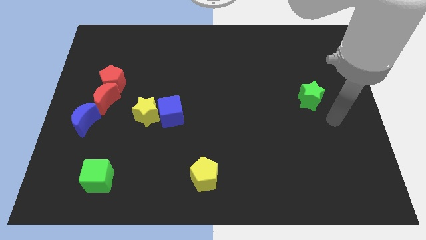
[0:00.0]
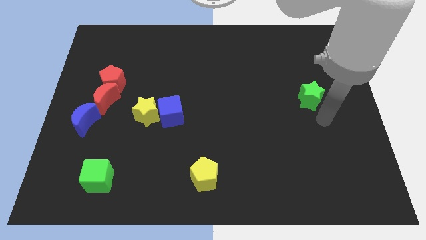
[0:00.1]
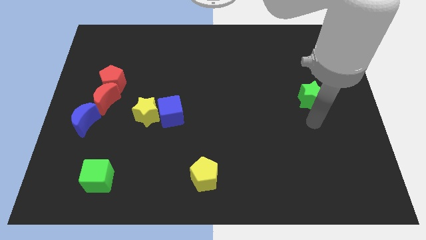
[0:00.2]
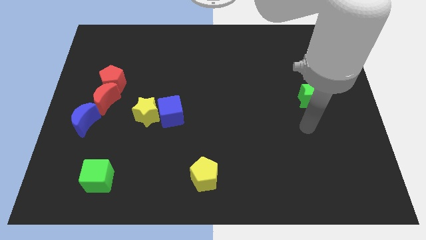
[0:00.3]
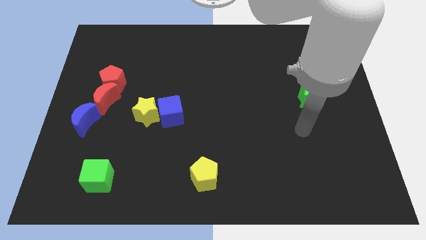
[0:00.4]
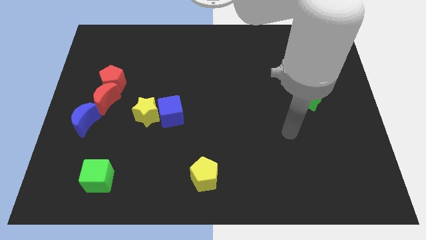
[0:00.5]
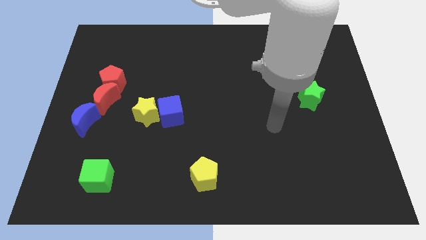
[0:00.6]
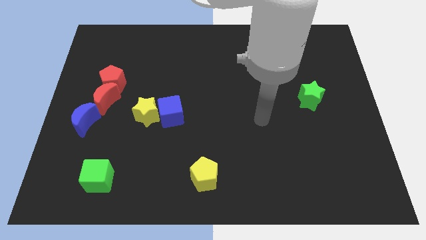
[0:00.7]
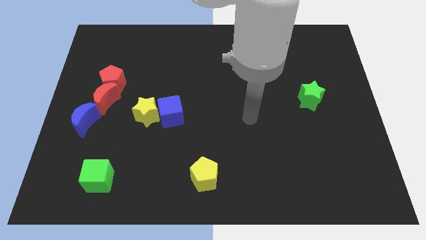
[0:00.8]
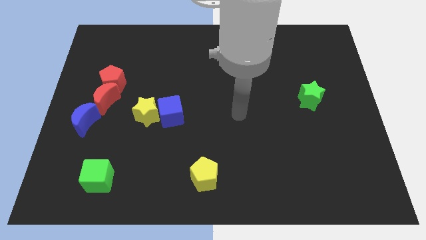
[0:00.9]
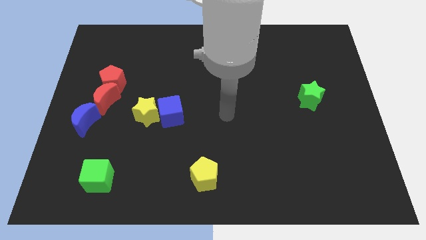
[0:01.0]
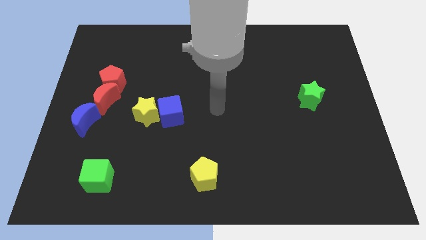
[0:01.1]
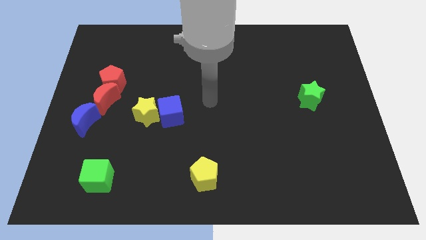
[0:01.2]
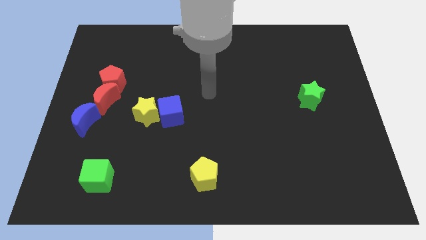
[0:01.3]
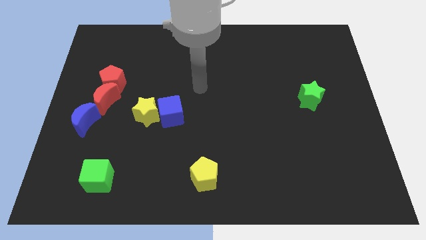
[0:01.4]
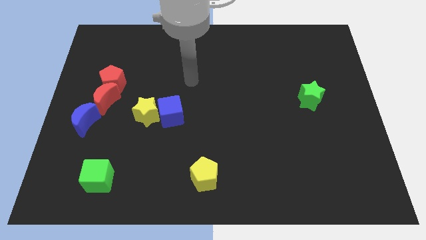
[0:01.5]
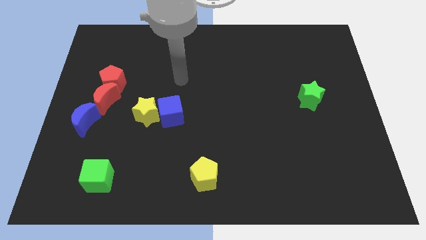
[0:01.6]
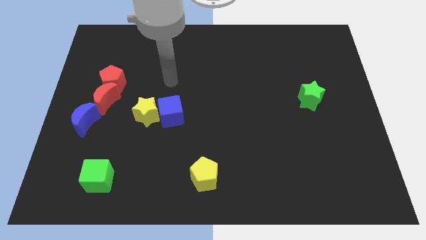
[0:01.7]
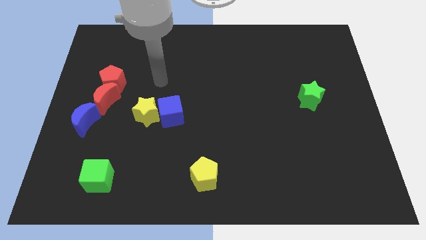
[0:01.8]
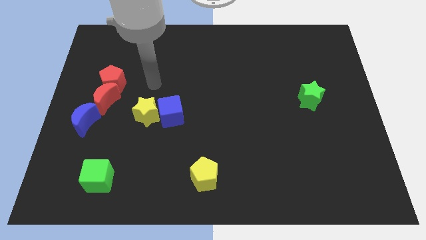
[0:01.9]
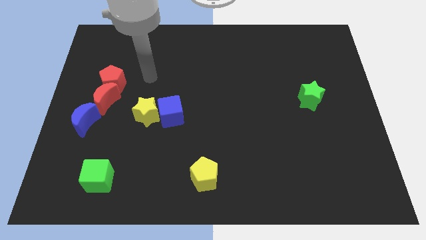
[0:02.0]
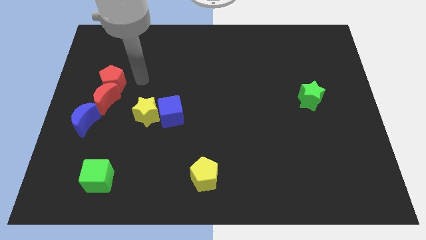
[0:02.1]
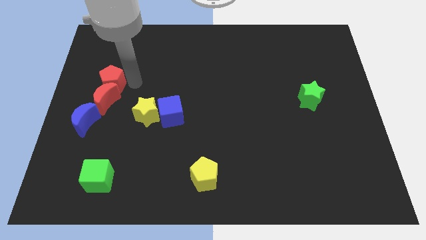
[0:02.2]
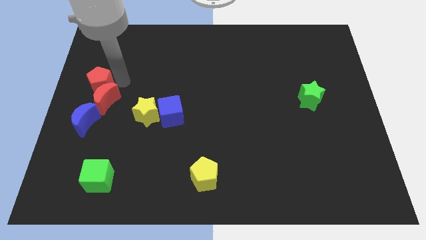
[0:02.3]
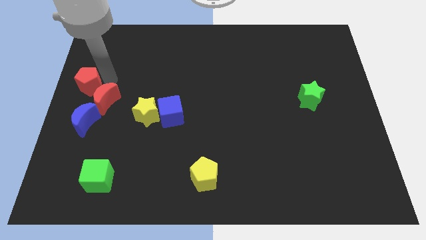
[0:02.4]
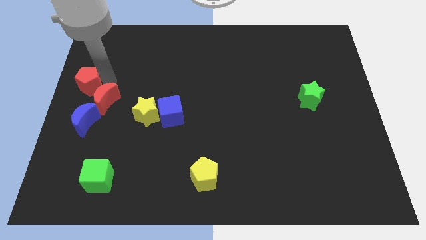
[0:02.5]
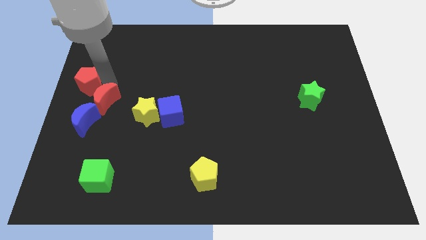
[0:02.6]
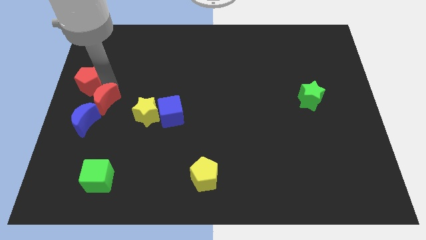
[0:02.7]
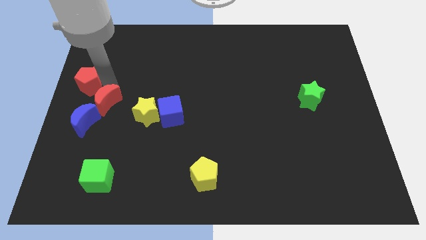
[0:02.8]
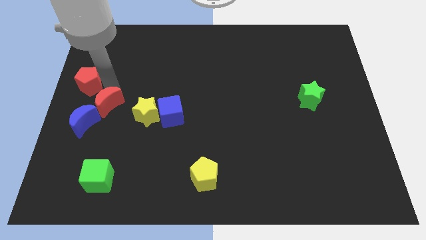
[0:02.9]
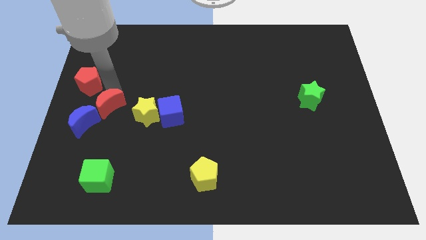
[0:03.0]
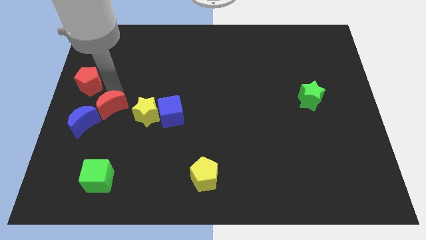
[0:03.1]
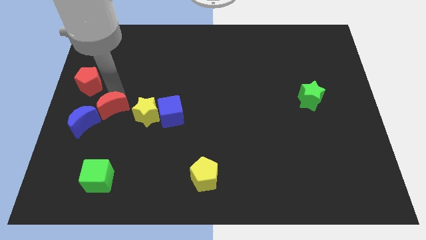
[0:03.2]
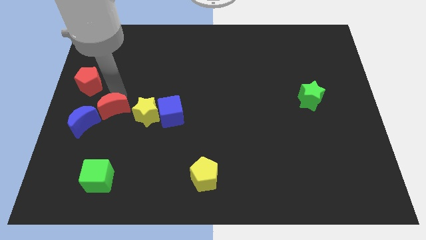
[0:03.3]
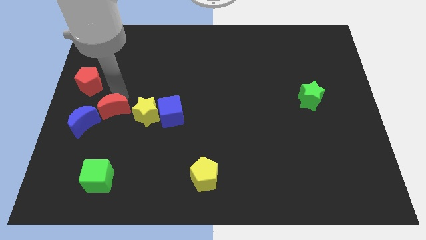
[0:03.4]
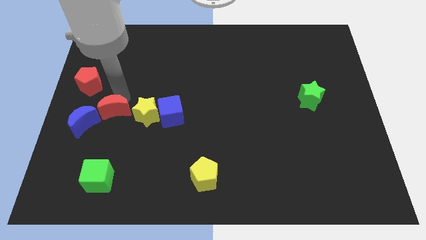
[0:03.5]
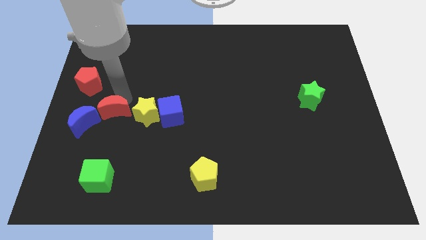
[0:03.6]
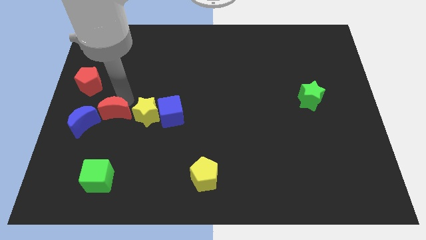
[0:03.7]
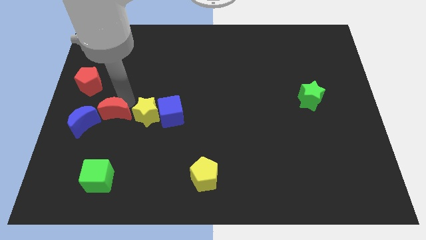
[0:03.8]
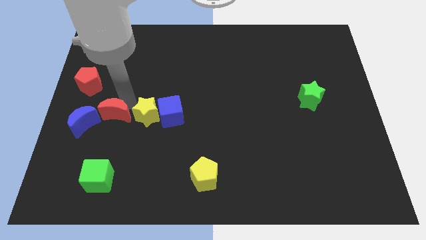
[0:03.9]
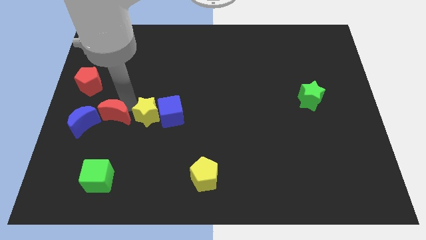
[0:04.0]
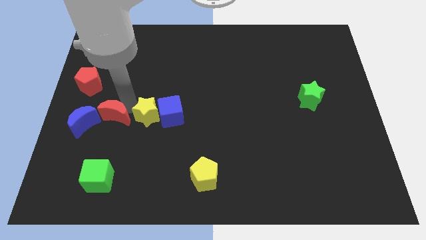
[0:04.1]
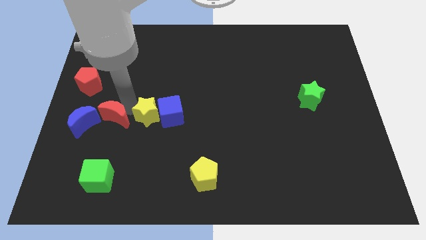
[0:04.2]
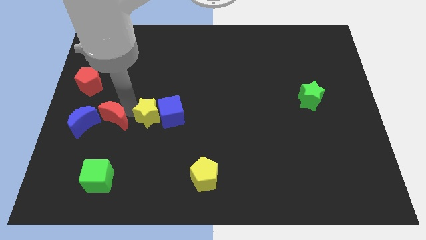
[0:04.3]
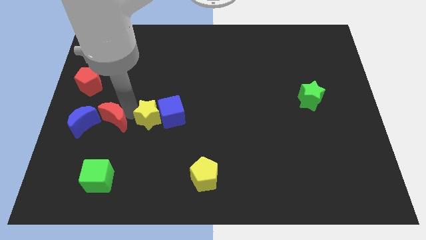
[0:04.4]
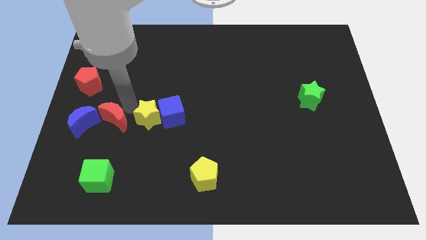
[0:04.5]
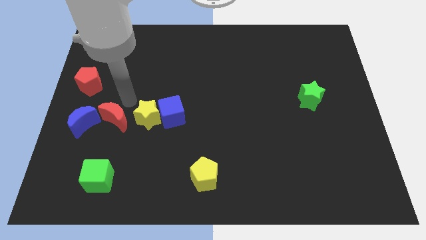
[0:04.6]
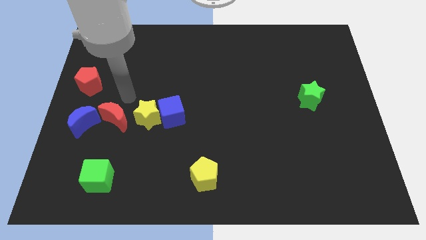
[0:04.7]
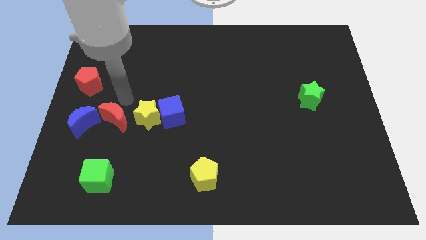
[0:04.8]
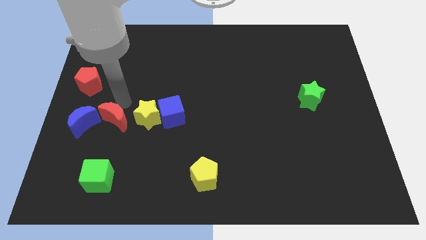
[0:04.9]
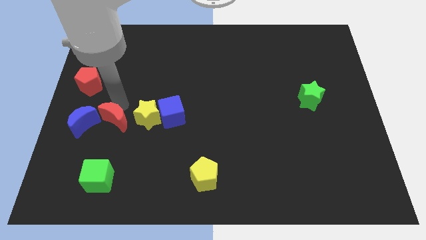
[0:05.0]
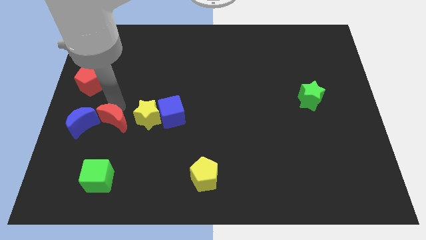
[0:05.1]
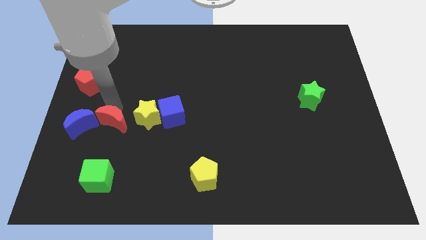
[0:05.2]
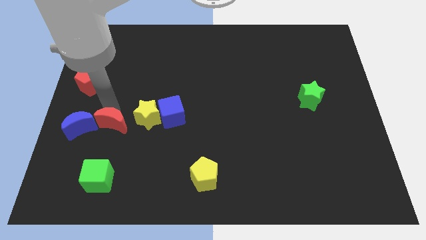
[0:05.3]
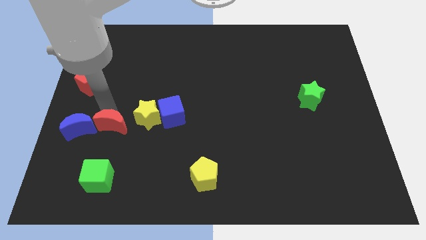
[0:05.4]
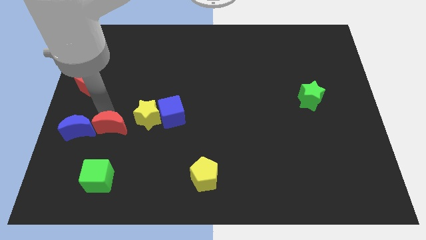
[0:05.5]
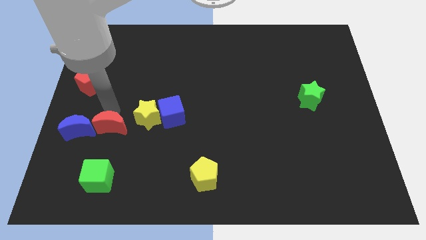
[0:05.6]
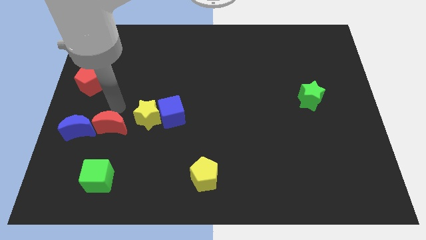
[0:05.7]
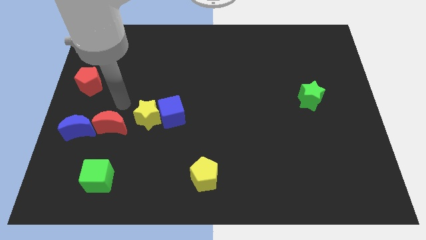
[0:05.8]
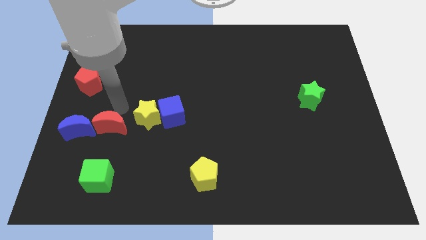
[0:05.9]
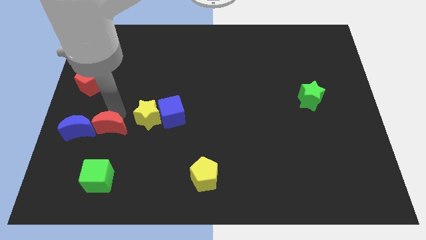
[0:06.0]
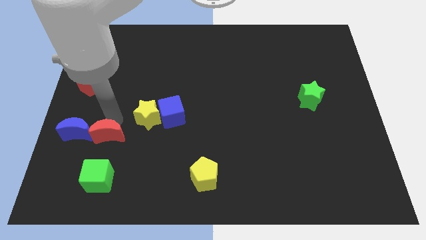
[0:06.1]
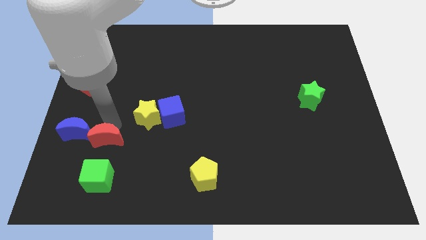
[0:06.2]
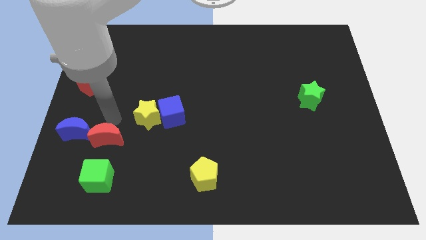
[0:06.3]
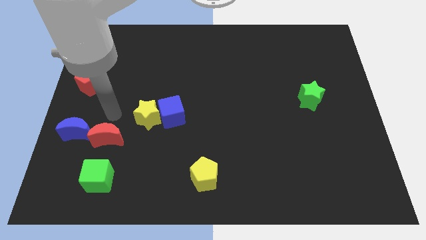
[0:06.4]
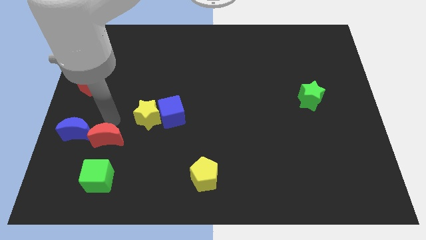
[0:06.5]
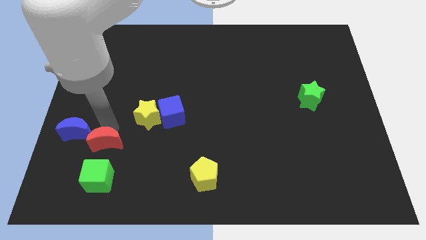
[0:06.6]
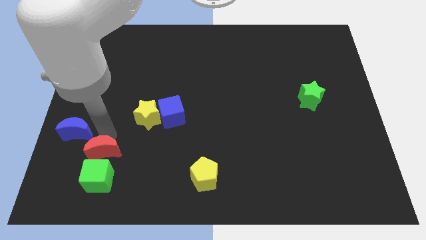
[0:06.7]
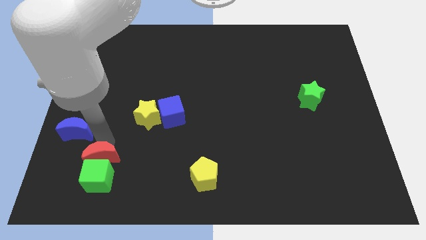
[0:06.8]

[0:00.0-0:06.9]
push the red moon next to the green cube
